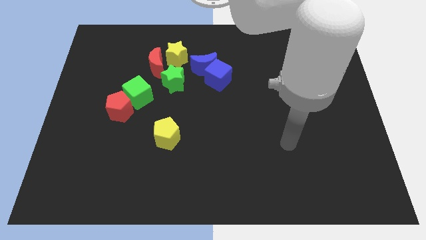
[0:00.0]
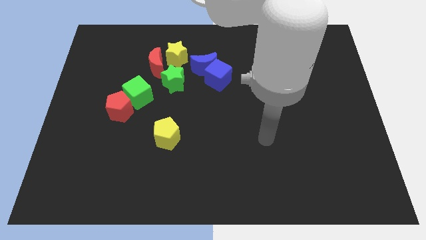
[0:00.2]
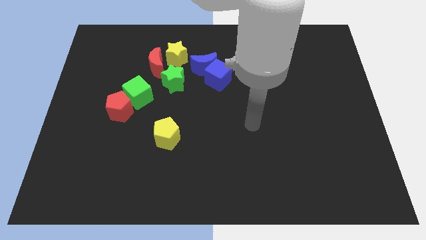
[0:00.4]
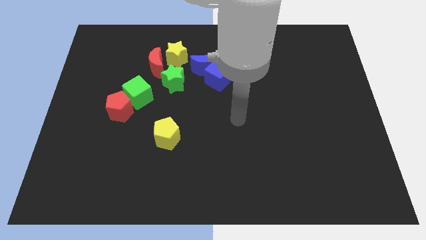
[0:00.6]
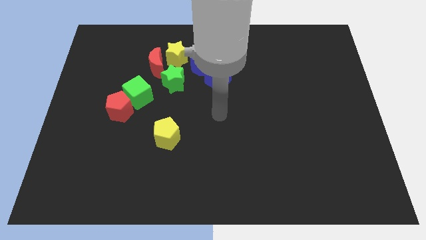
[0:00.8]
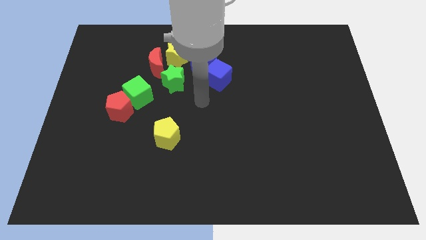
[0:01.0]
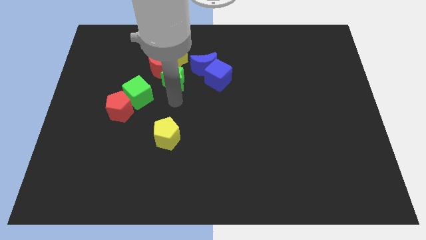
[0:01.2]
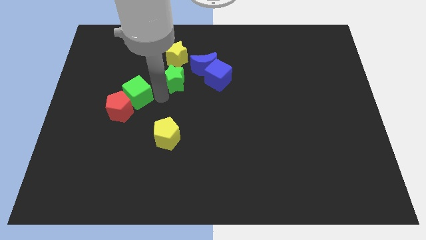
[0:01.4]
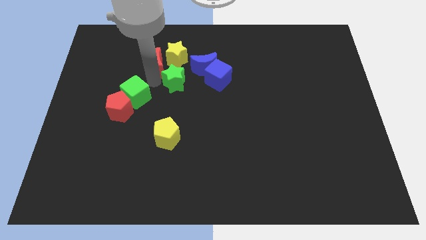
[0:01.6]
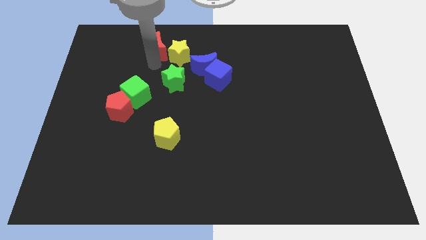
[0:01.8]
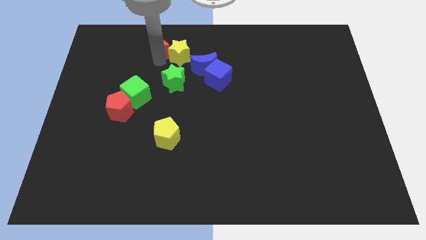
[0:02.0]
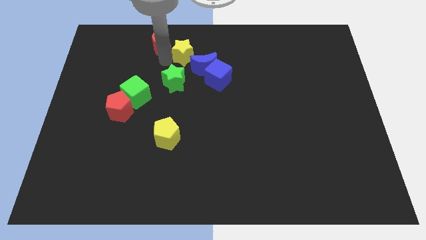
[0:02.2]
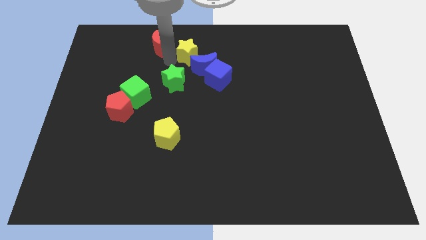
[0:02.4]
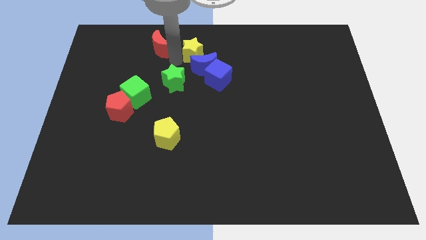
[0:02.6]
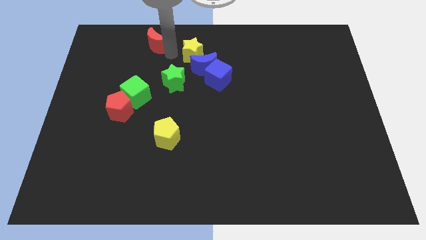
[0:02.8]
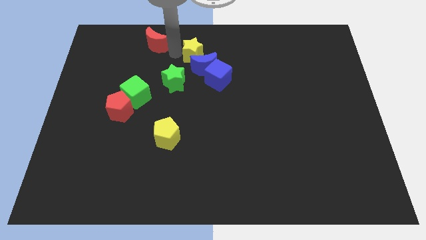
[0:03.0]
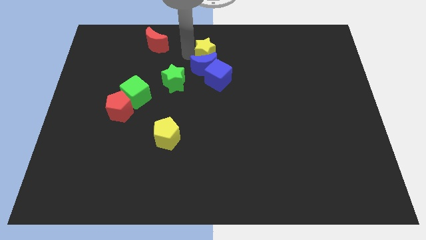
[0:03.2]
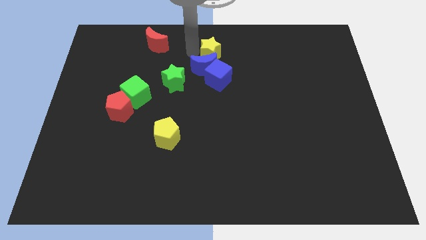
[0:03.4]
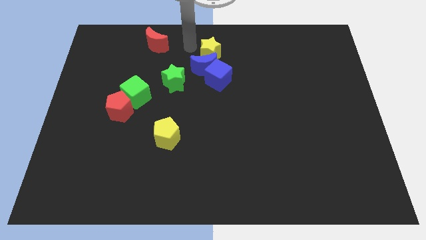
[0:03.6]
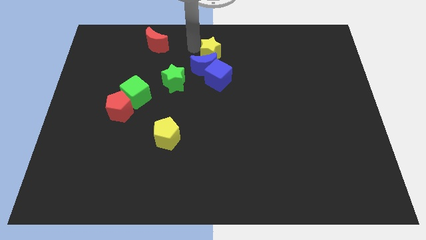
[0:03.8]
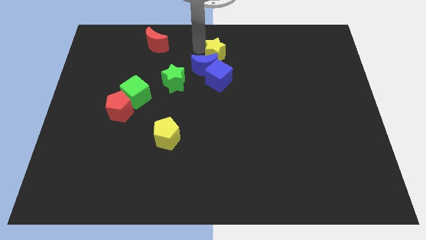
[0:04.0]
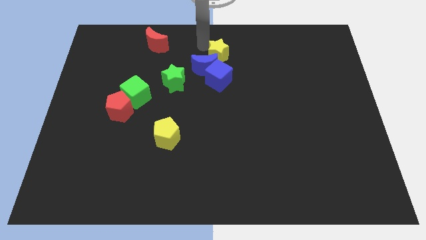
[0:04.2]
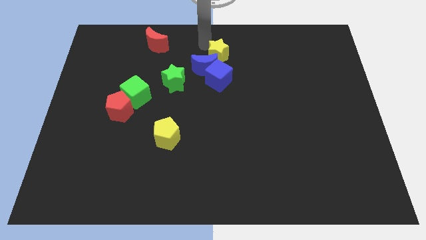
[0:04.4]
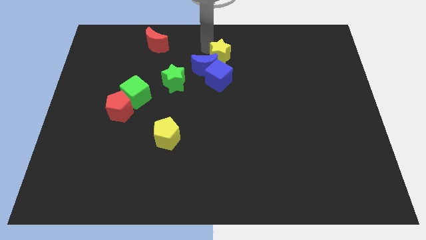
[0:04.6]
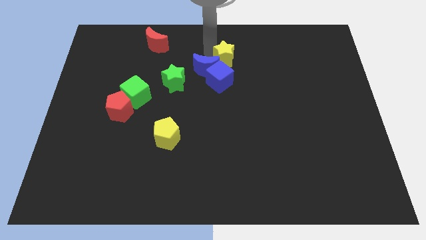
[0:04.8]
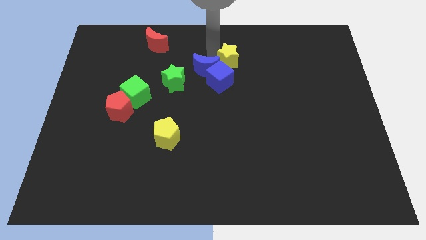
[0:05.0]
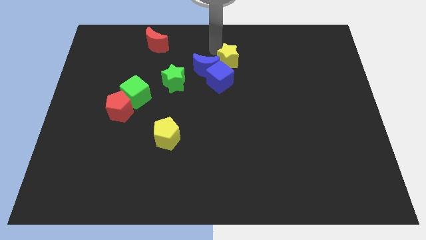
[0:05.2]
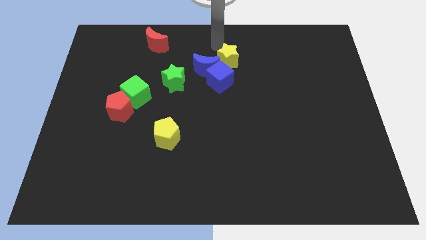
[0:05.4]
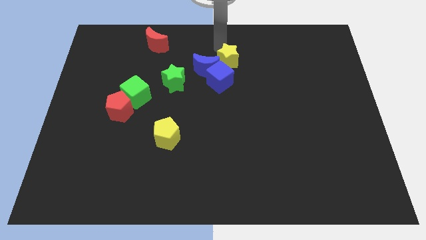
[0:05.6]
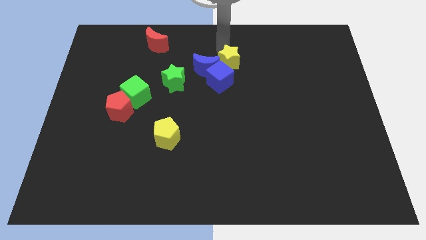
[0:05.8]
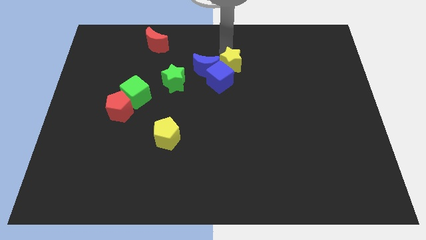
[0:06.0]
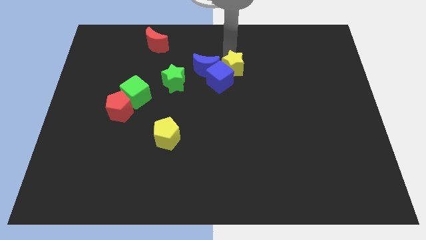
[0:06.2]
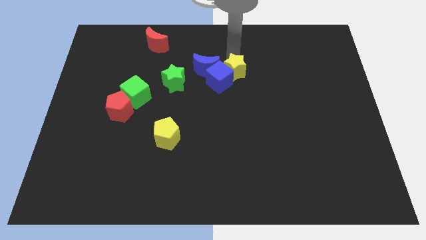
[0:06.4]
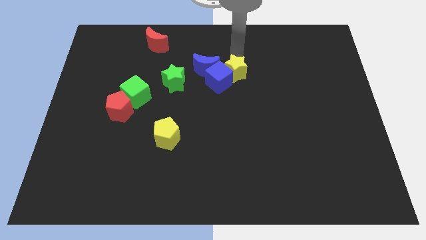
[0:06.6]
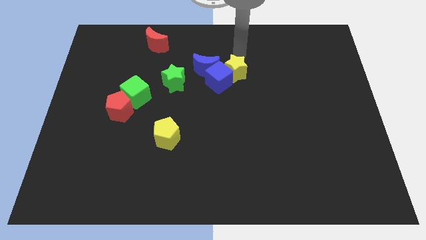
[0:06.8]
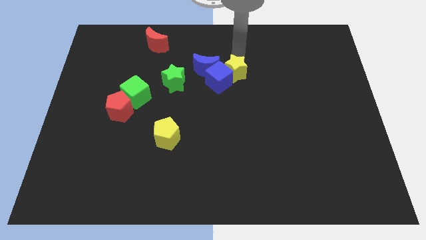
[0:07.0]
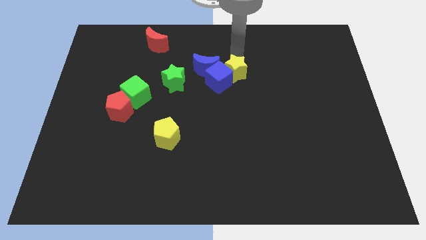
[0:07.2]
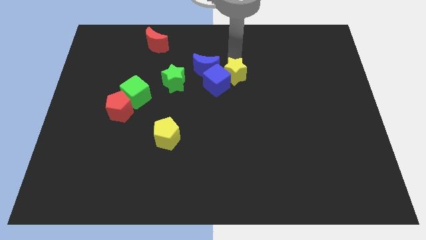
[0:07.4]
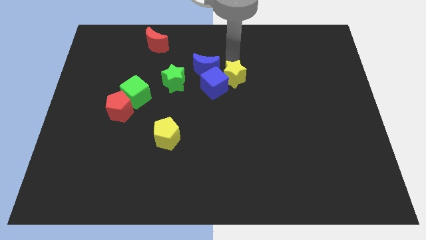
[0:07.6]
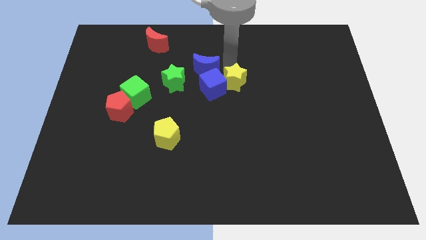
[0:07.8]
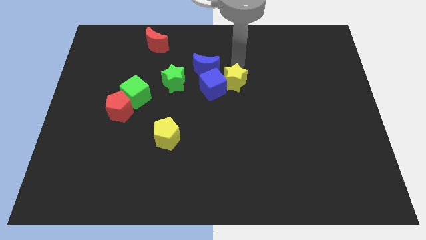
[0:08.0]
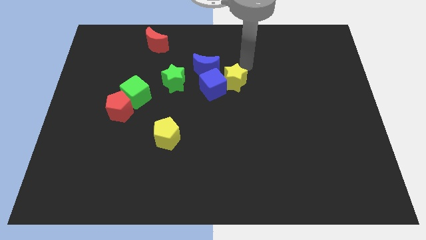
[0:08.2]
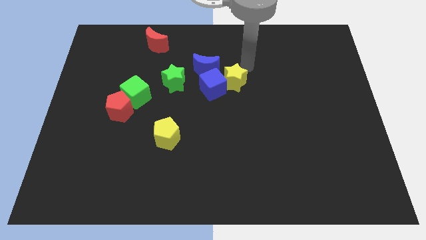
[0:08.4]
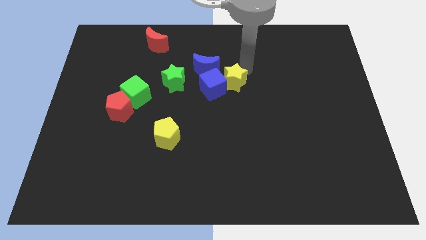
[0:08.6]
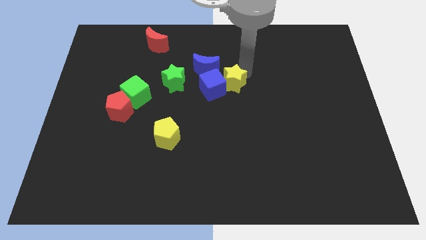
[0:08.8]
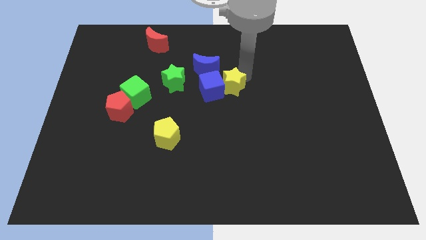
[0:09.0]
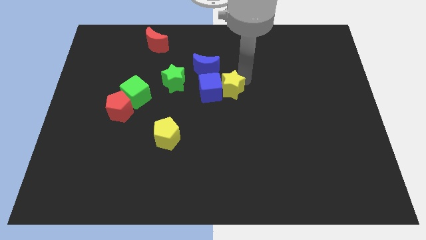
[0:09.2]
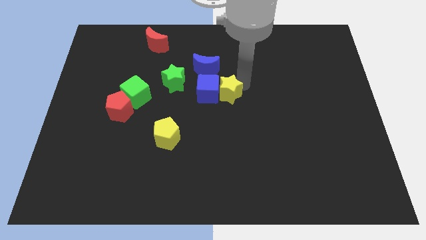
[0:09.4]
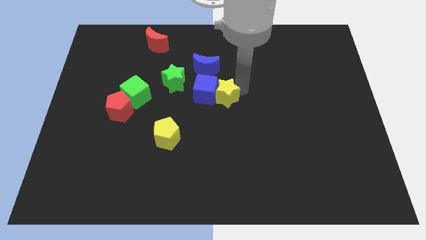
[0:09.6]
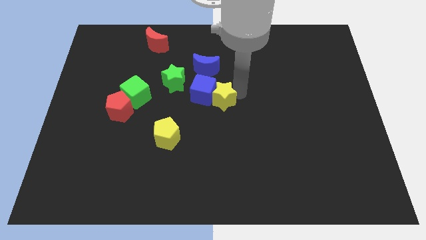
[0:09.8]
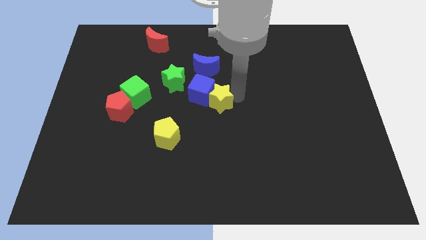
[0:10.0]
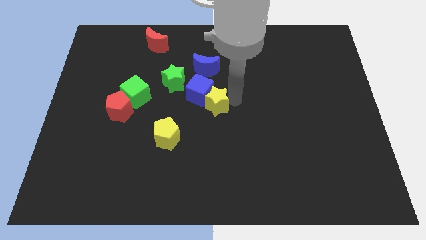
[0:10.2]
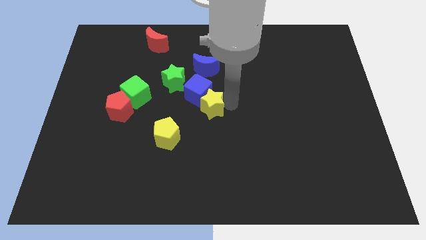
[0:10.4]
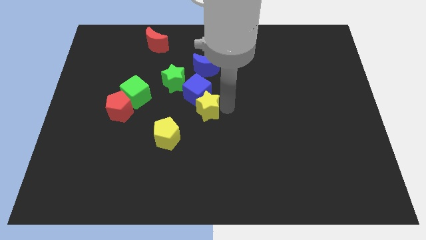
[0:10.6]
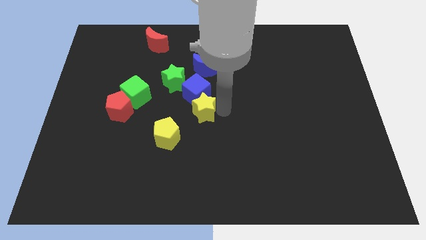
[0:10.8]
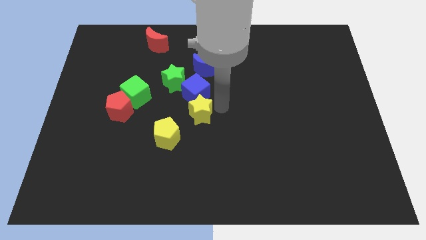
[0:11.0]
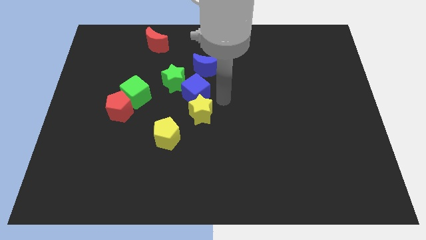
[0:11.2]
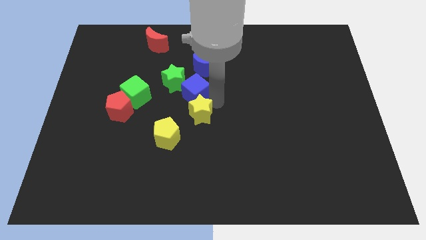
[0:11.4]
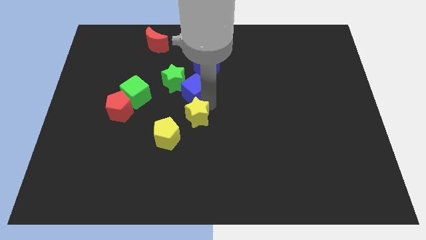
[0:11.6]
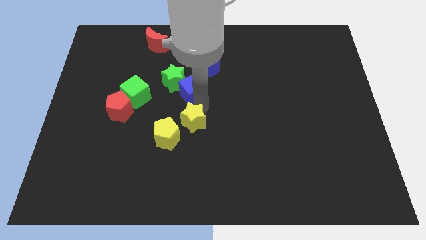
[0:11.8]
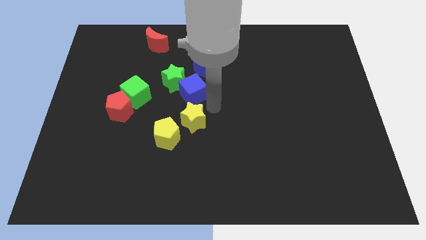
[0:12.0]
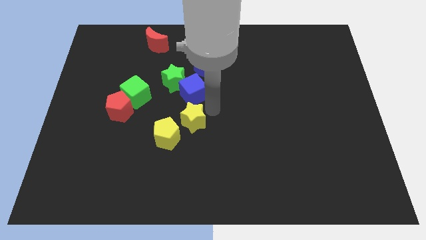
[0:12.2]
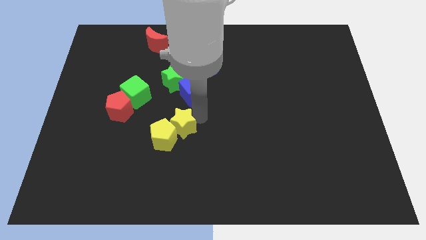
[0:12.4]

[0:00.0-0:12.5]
push the yellow star next to the yellow pentagon

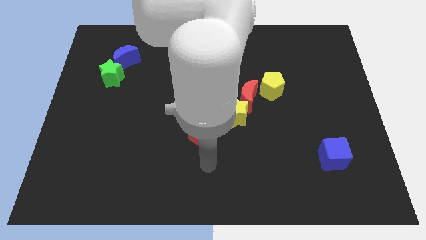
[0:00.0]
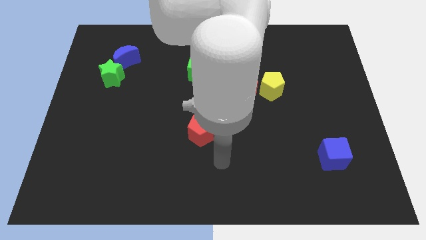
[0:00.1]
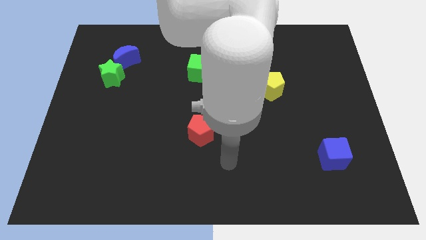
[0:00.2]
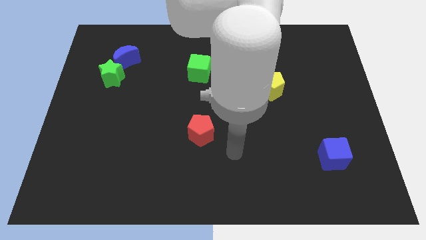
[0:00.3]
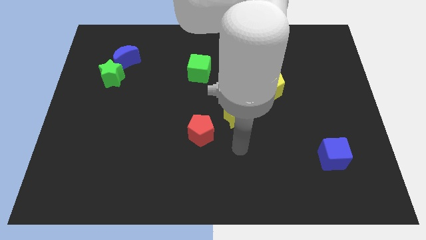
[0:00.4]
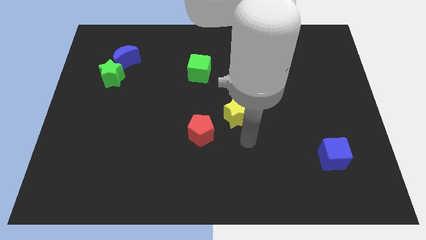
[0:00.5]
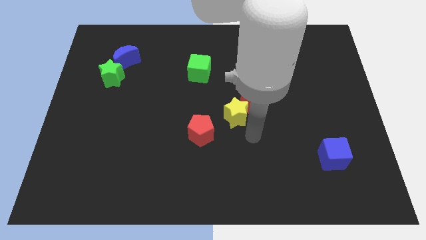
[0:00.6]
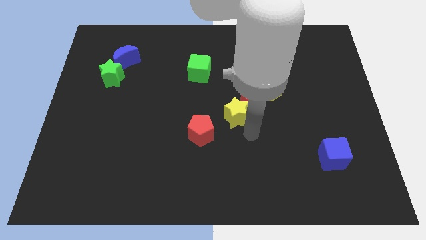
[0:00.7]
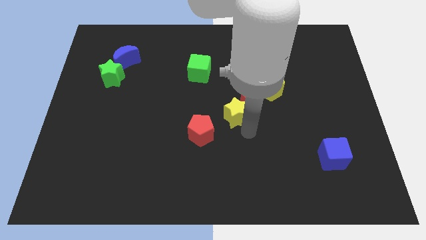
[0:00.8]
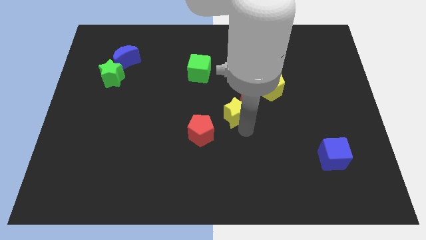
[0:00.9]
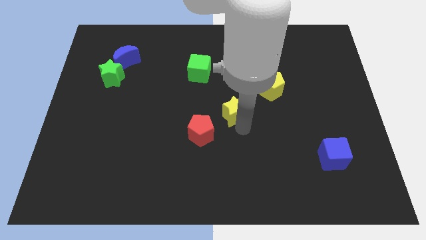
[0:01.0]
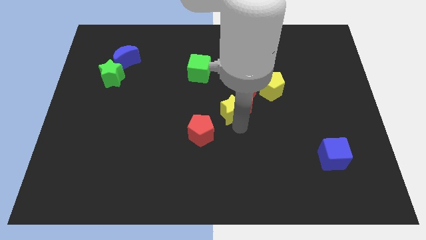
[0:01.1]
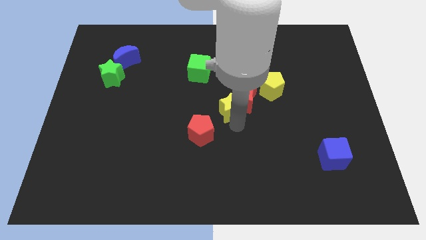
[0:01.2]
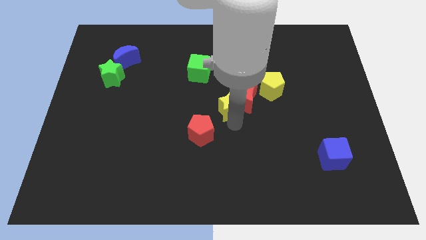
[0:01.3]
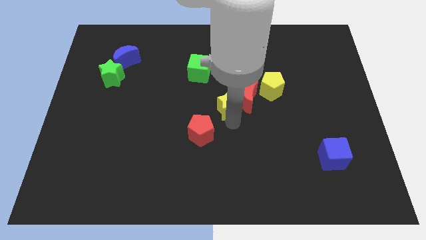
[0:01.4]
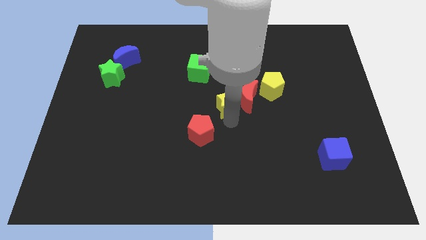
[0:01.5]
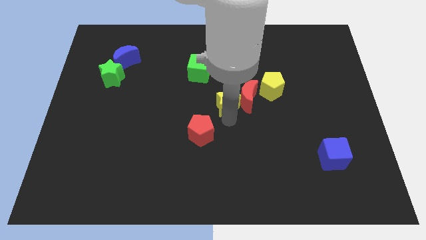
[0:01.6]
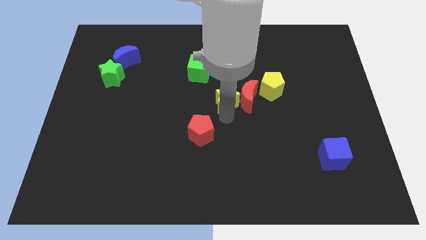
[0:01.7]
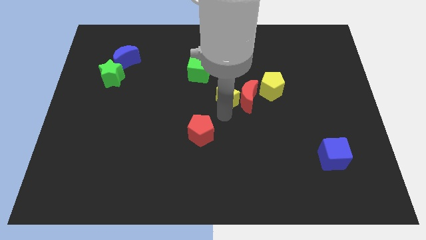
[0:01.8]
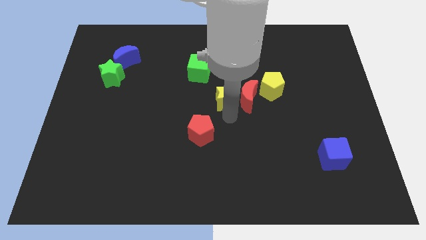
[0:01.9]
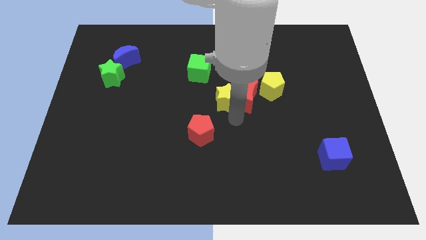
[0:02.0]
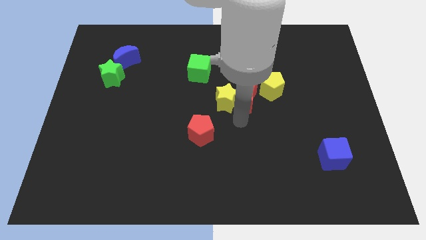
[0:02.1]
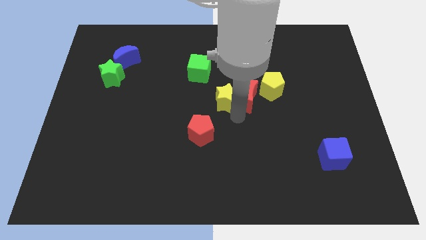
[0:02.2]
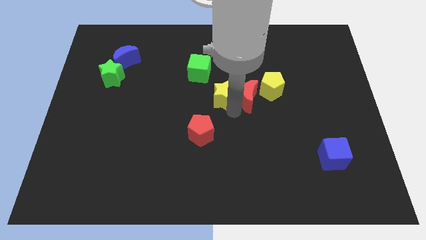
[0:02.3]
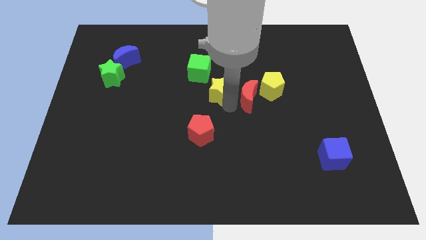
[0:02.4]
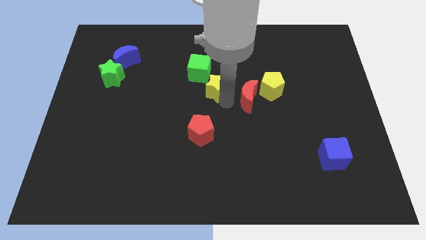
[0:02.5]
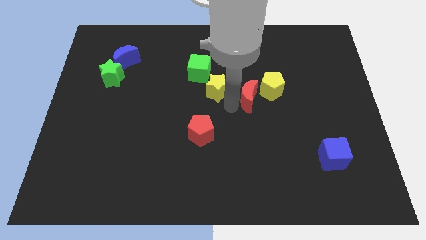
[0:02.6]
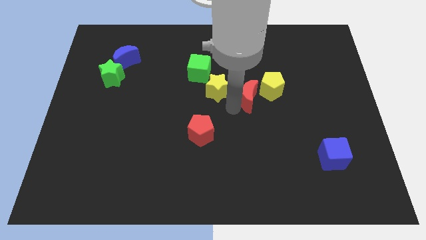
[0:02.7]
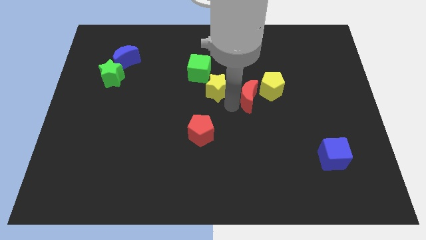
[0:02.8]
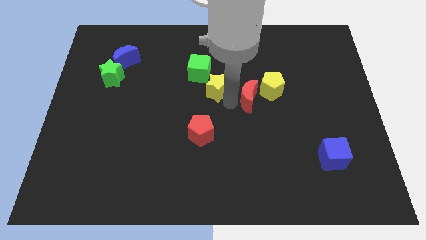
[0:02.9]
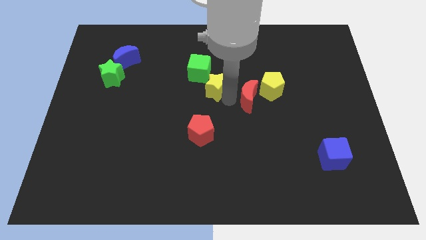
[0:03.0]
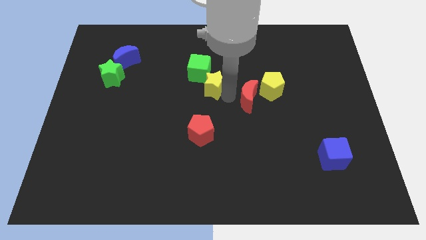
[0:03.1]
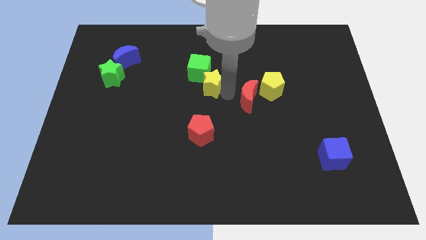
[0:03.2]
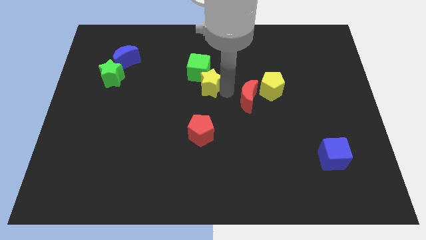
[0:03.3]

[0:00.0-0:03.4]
push the yellow star close to the green cube
